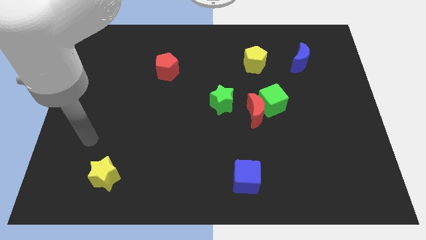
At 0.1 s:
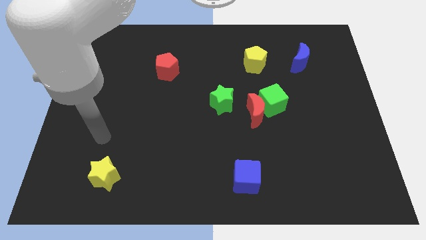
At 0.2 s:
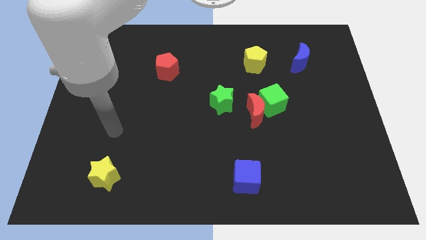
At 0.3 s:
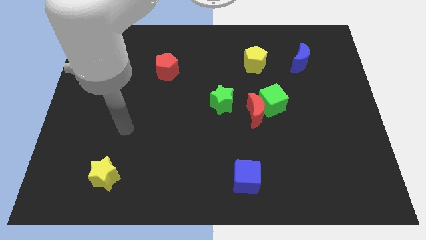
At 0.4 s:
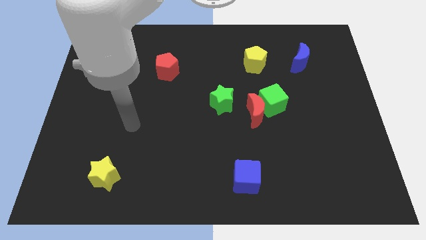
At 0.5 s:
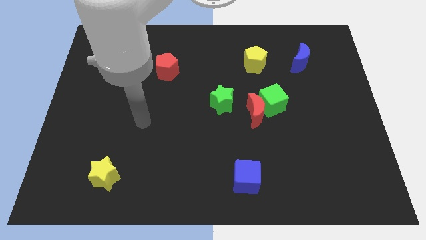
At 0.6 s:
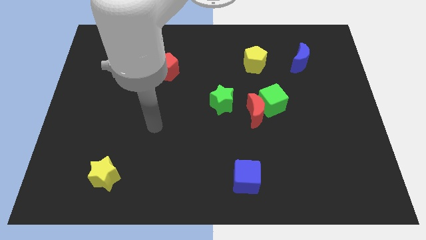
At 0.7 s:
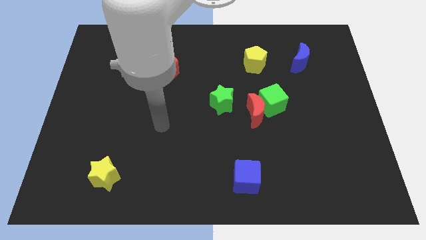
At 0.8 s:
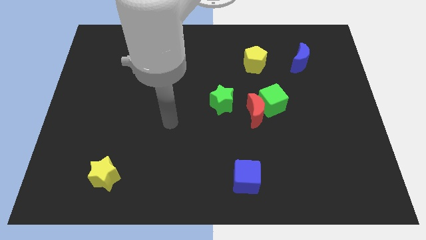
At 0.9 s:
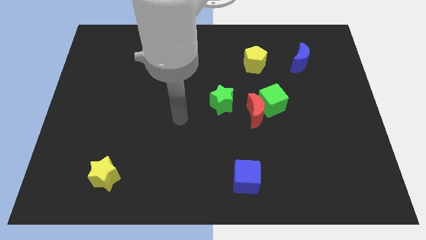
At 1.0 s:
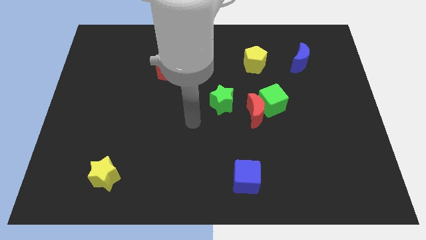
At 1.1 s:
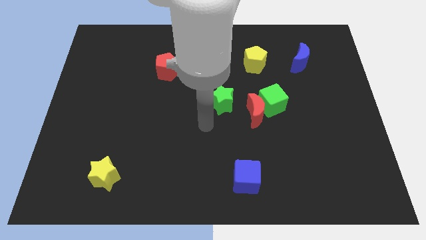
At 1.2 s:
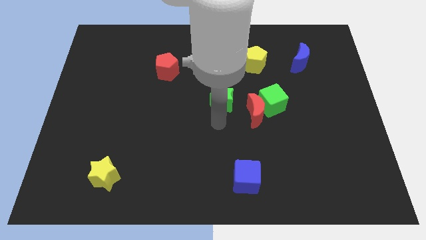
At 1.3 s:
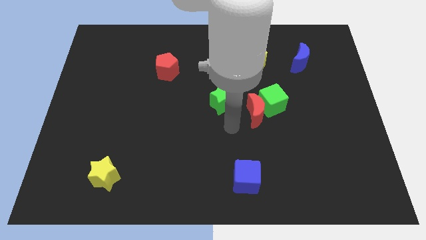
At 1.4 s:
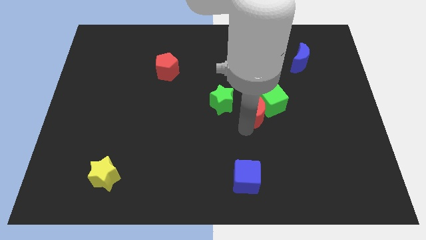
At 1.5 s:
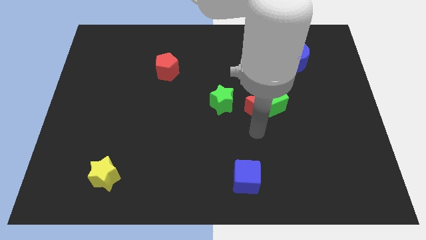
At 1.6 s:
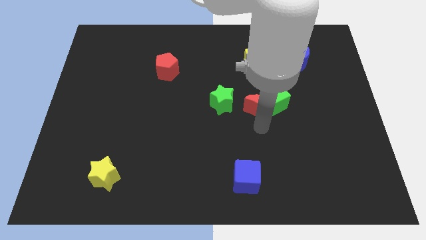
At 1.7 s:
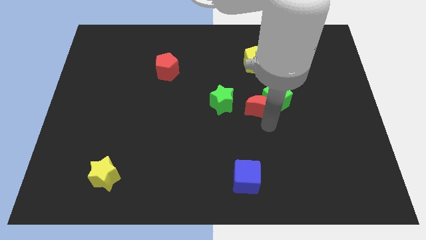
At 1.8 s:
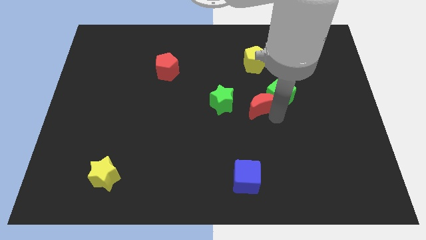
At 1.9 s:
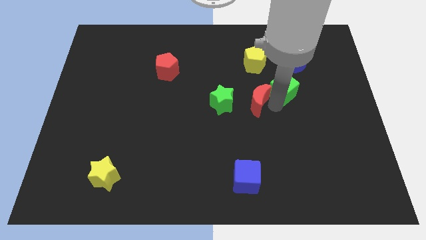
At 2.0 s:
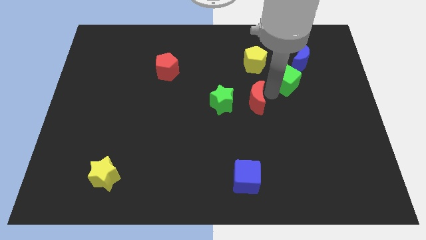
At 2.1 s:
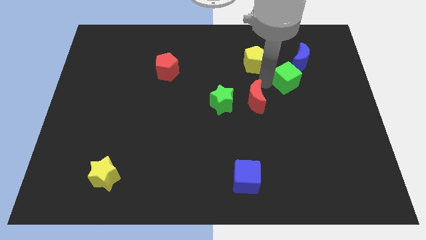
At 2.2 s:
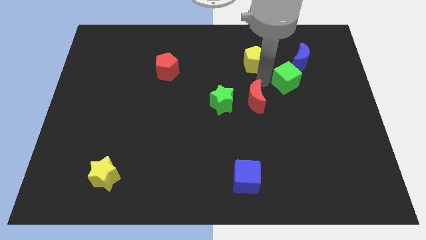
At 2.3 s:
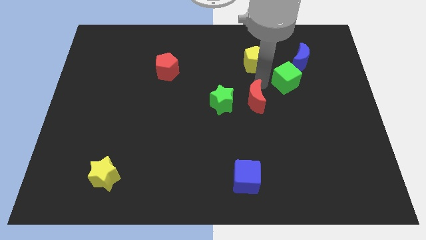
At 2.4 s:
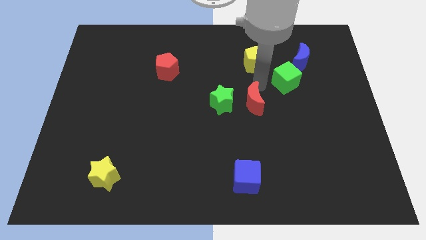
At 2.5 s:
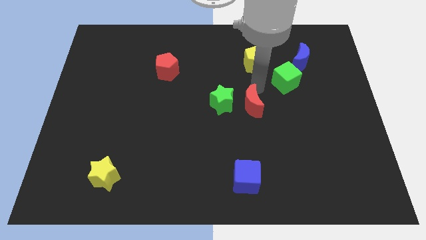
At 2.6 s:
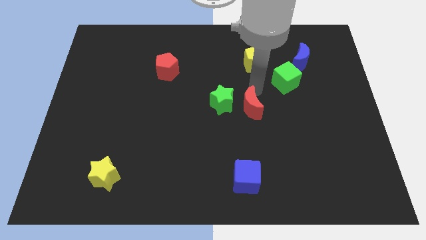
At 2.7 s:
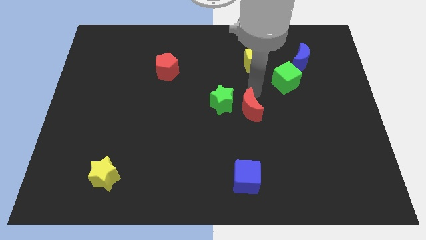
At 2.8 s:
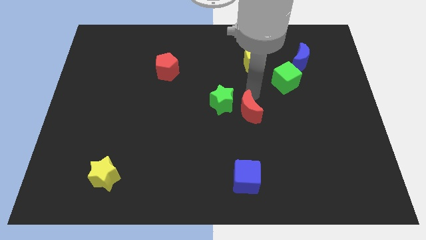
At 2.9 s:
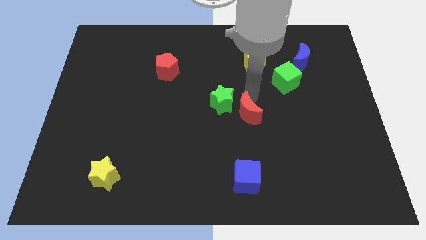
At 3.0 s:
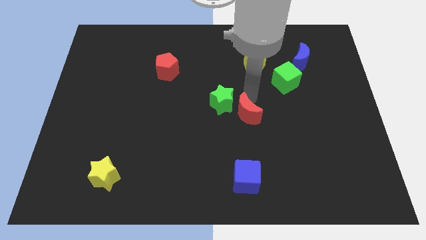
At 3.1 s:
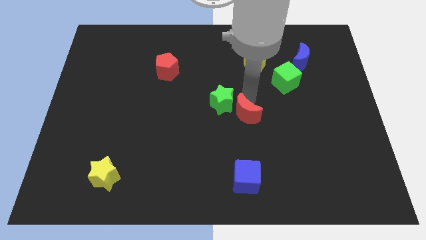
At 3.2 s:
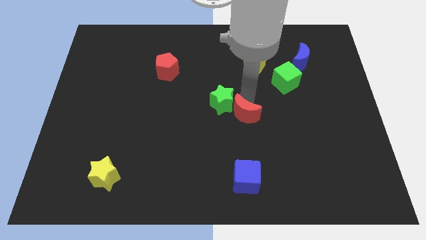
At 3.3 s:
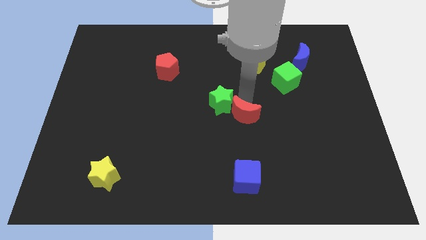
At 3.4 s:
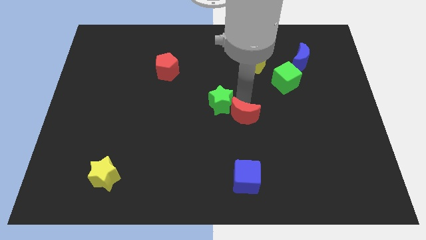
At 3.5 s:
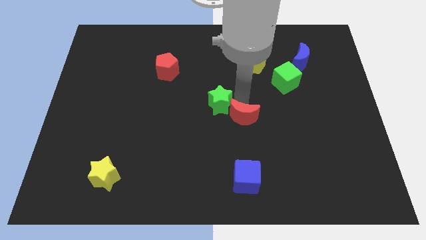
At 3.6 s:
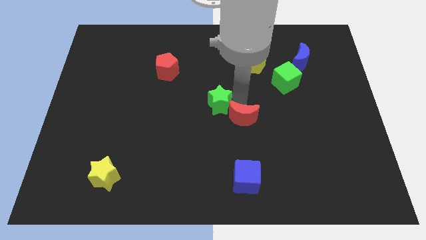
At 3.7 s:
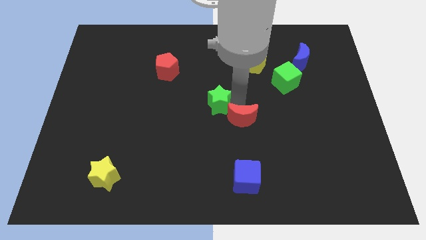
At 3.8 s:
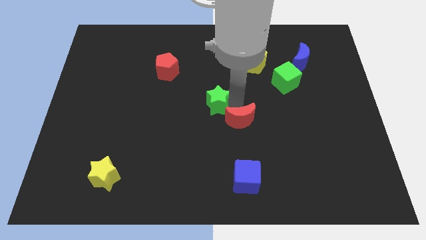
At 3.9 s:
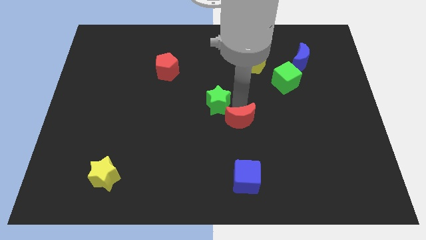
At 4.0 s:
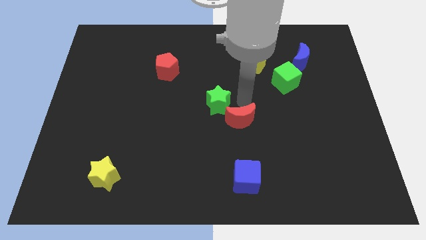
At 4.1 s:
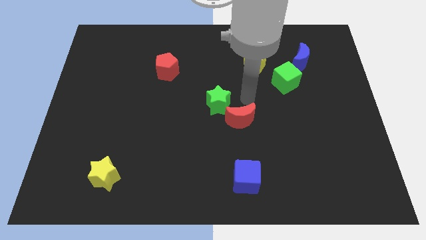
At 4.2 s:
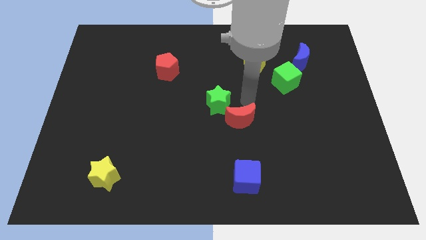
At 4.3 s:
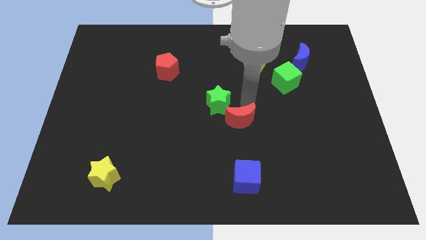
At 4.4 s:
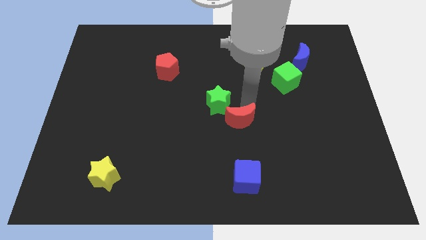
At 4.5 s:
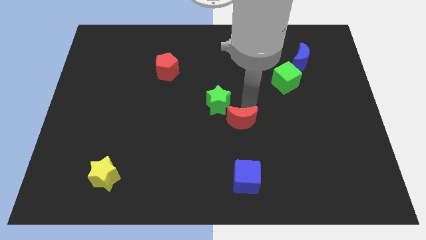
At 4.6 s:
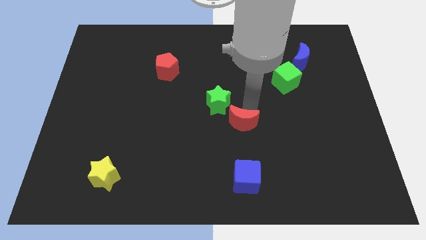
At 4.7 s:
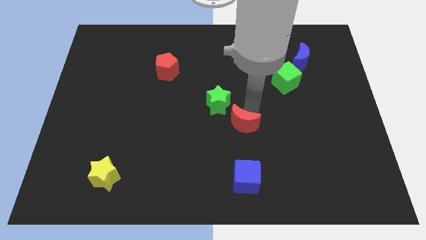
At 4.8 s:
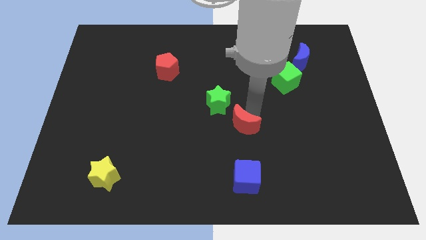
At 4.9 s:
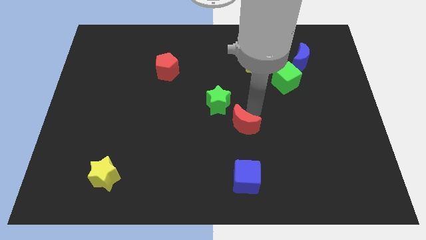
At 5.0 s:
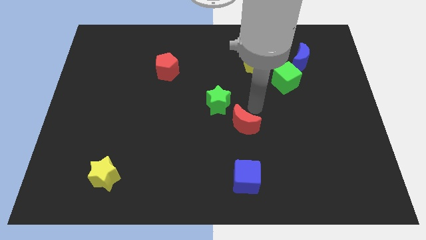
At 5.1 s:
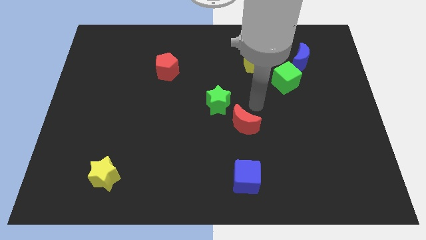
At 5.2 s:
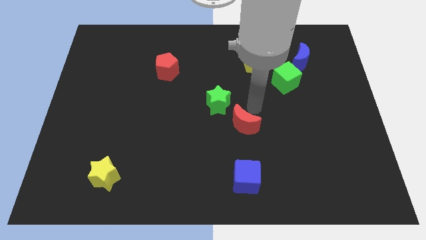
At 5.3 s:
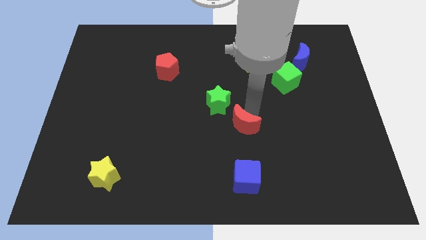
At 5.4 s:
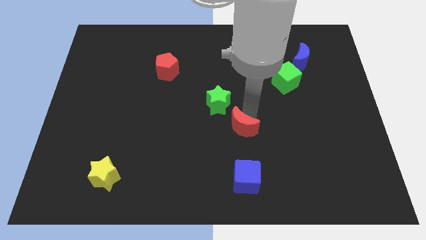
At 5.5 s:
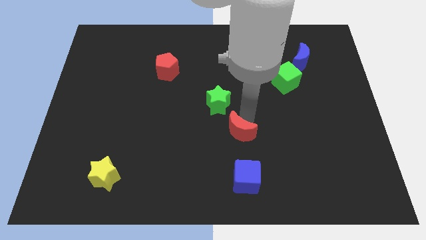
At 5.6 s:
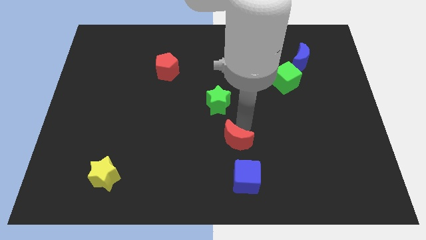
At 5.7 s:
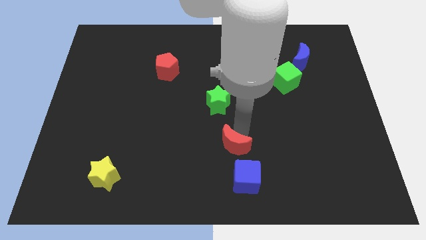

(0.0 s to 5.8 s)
slide the red moon to the top left of the blue cube

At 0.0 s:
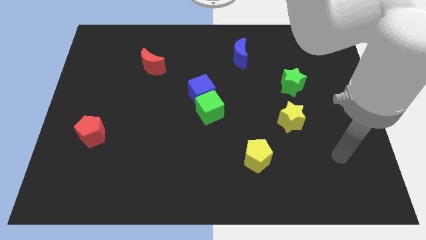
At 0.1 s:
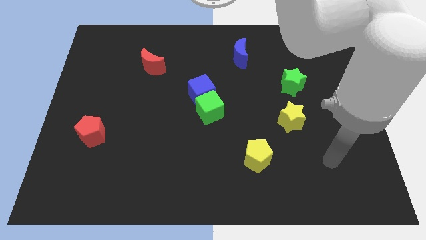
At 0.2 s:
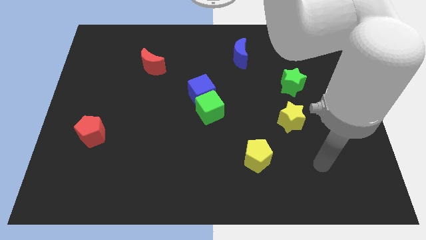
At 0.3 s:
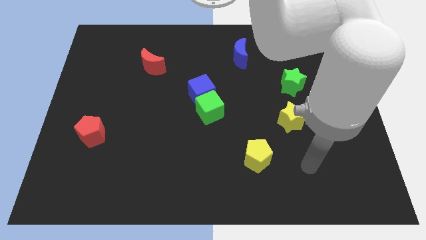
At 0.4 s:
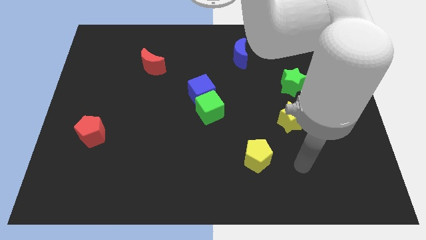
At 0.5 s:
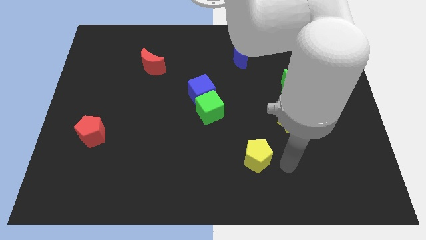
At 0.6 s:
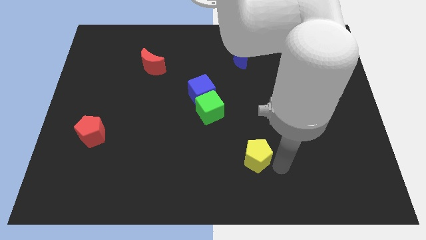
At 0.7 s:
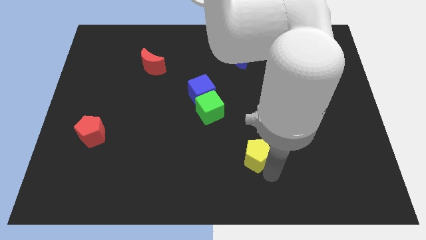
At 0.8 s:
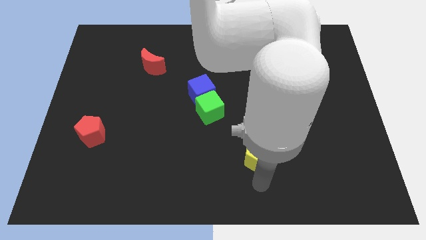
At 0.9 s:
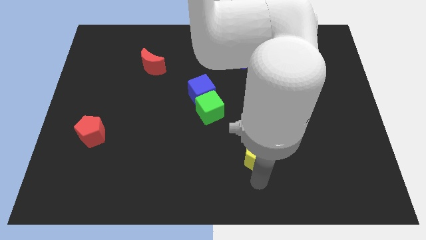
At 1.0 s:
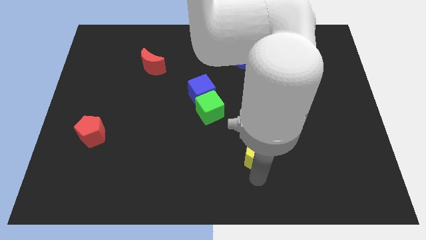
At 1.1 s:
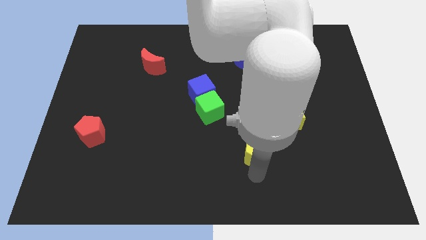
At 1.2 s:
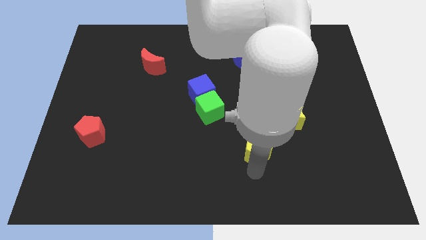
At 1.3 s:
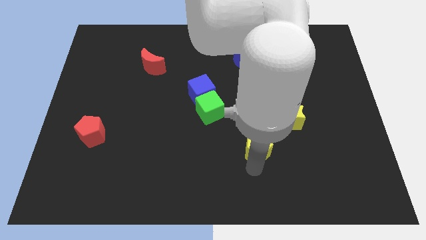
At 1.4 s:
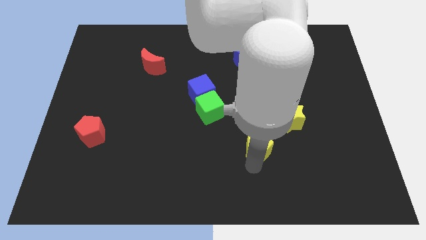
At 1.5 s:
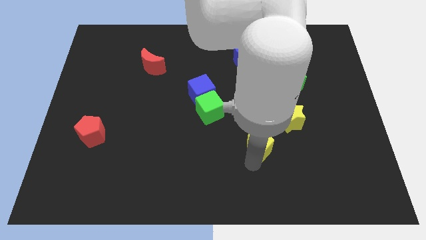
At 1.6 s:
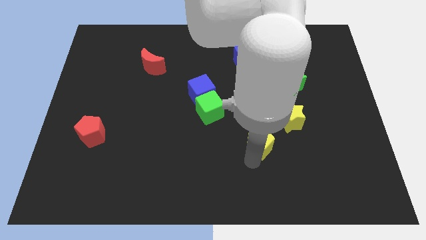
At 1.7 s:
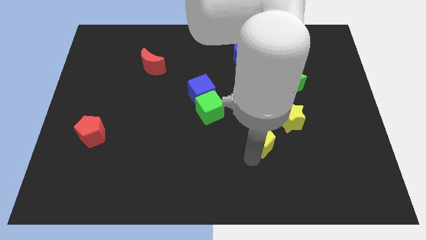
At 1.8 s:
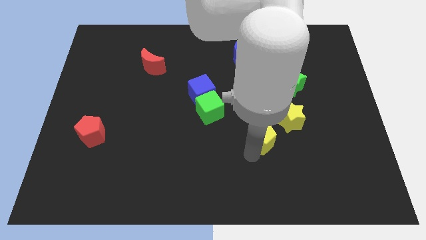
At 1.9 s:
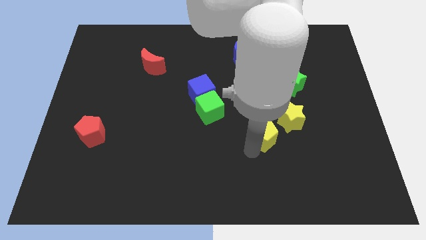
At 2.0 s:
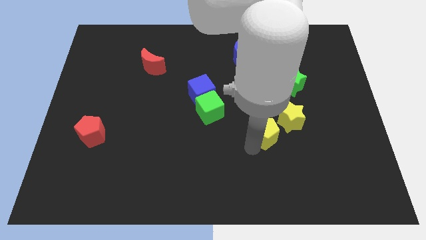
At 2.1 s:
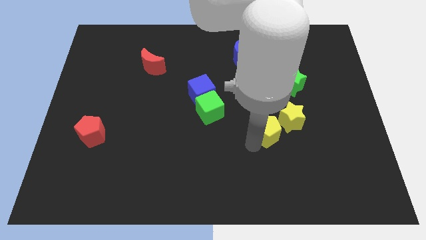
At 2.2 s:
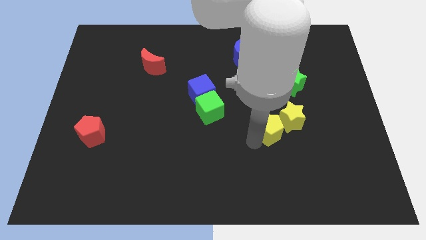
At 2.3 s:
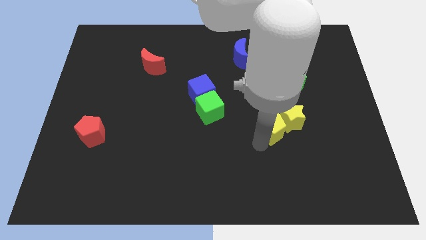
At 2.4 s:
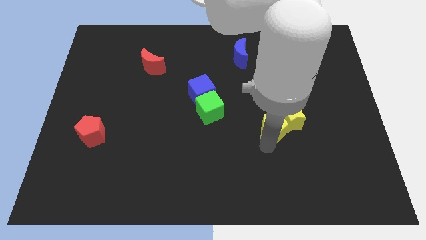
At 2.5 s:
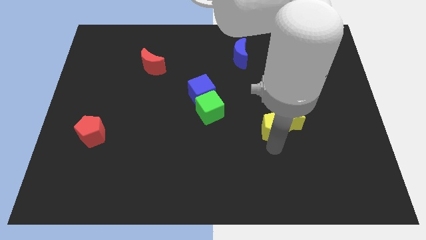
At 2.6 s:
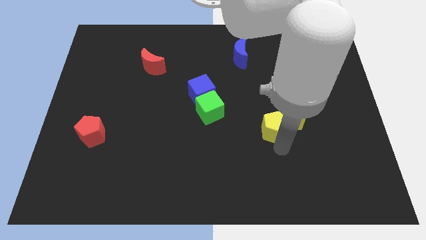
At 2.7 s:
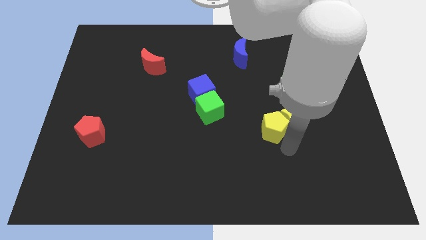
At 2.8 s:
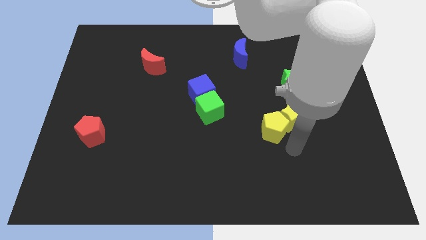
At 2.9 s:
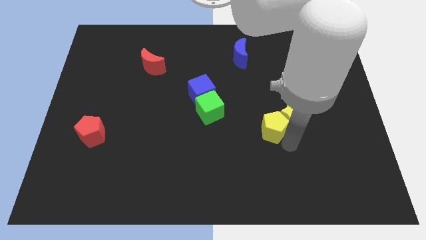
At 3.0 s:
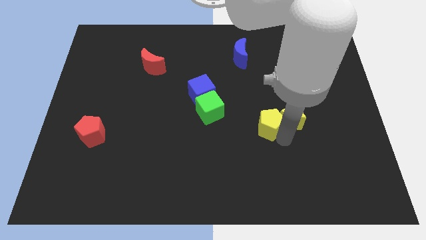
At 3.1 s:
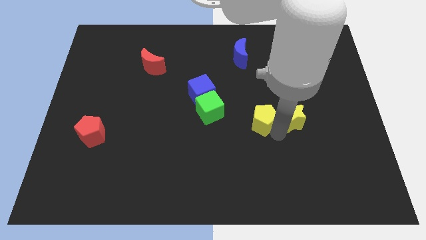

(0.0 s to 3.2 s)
put the yellow pentagon to the right side of the green cube
